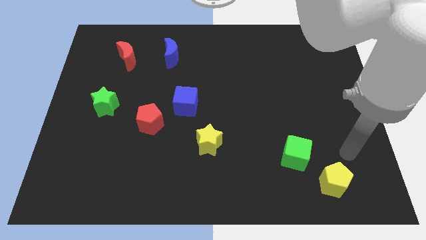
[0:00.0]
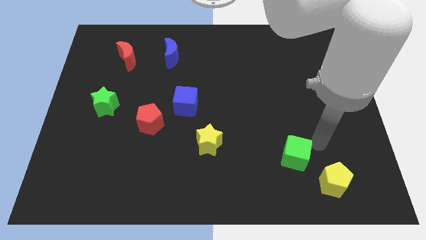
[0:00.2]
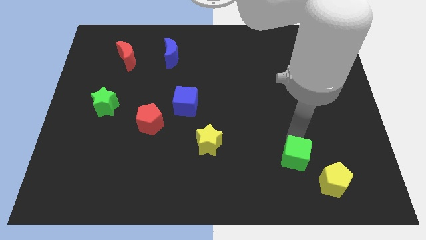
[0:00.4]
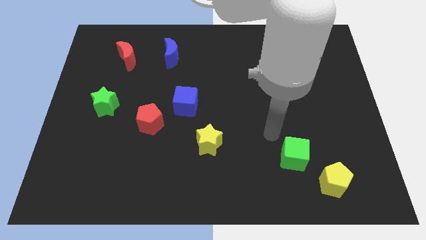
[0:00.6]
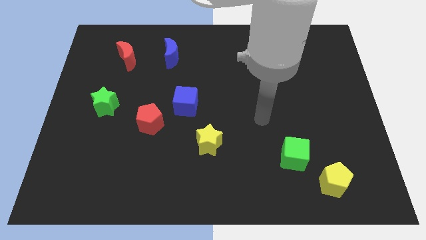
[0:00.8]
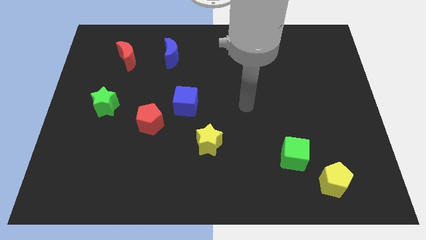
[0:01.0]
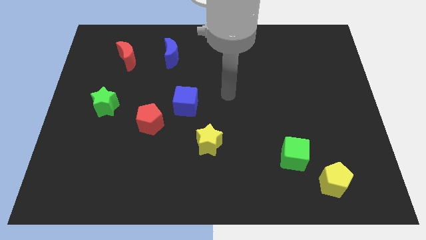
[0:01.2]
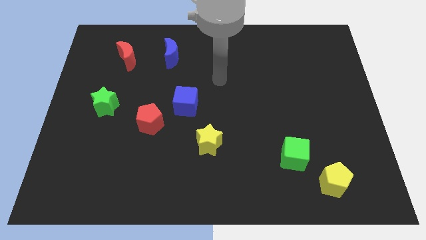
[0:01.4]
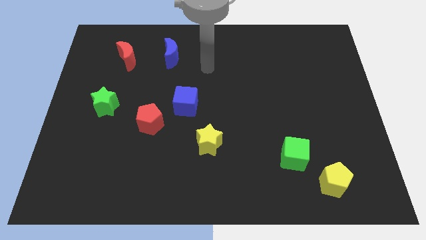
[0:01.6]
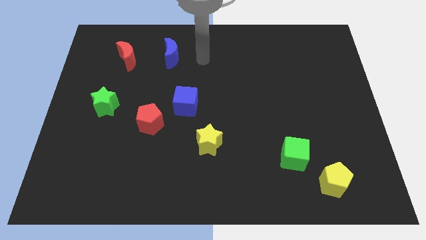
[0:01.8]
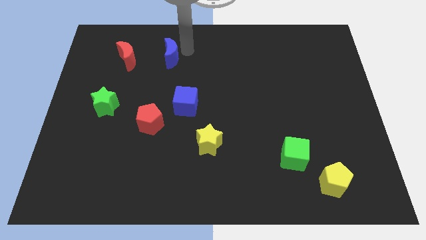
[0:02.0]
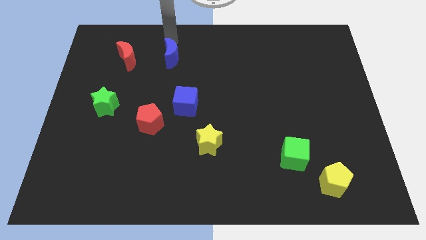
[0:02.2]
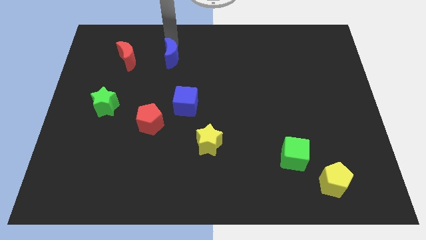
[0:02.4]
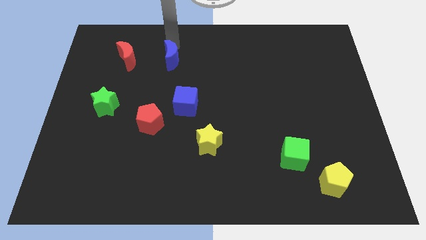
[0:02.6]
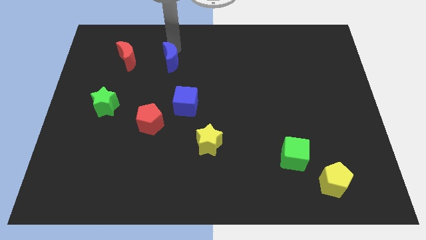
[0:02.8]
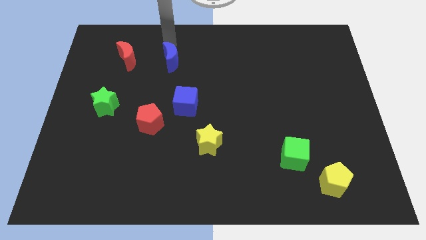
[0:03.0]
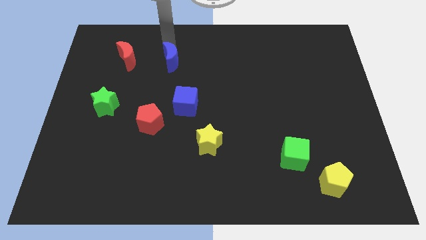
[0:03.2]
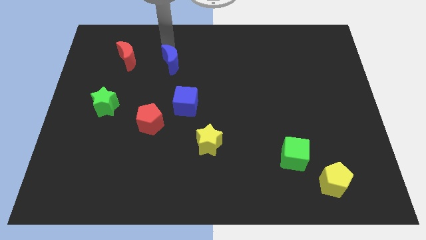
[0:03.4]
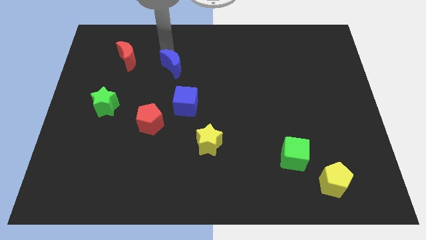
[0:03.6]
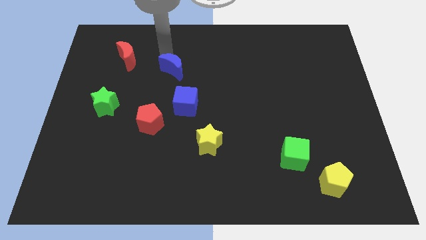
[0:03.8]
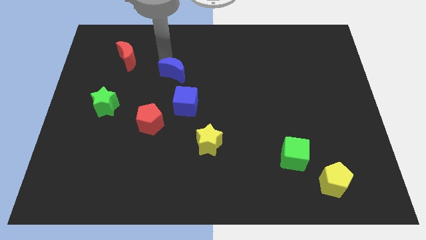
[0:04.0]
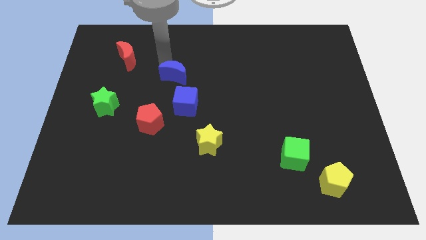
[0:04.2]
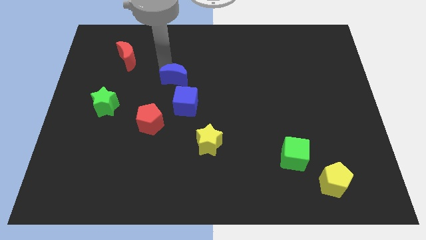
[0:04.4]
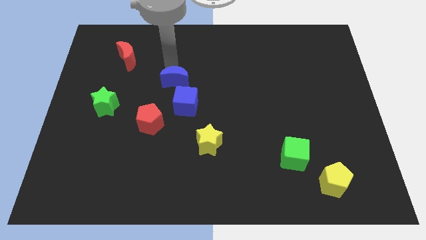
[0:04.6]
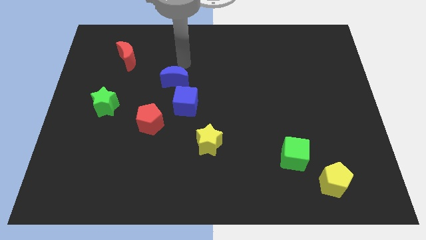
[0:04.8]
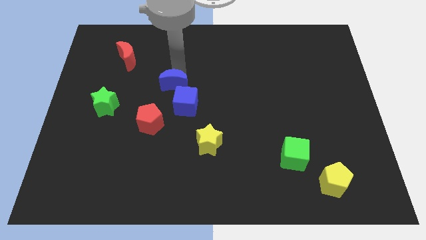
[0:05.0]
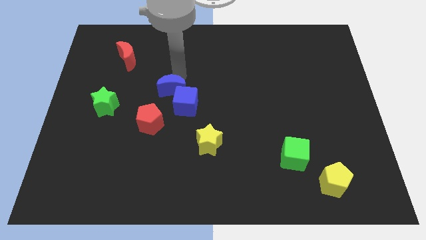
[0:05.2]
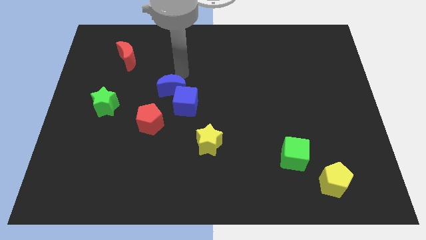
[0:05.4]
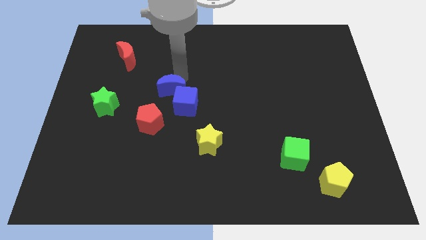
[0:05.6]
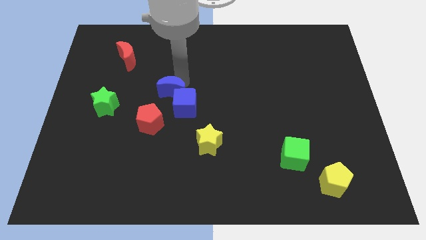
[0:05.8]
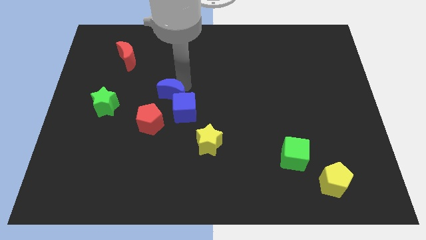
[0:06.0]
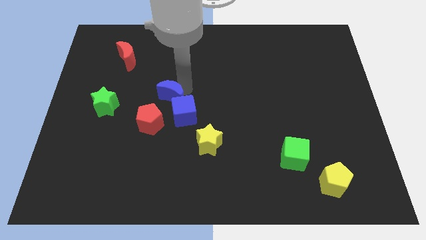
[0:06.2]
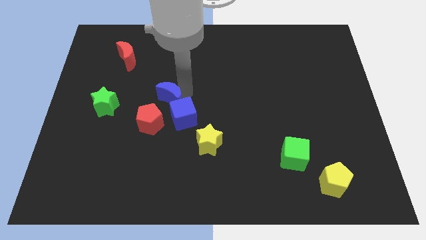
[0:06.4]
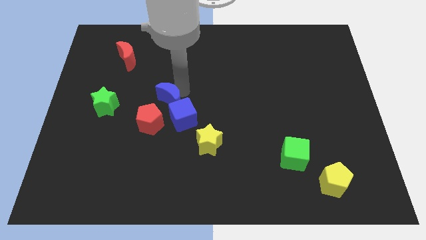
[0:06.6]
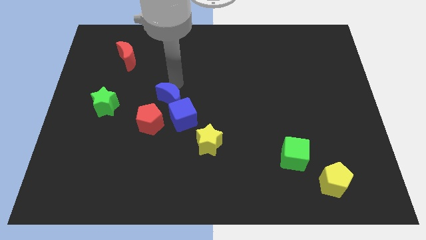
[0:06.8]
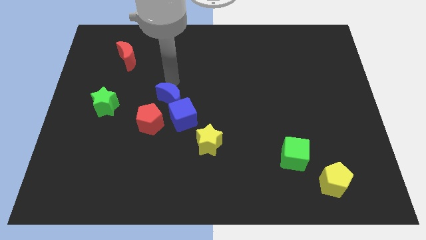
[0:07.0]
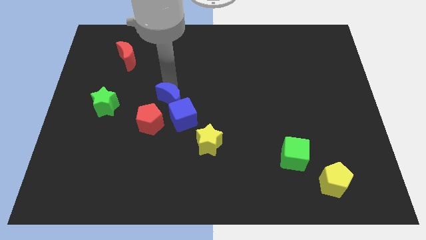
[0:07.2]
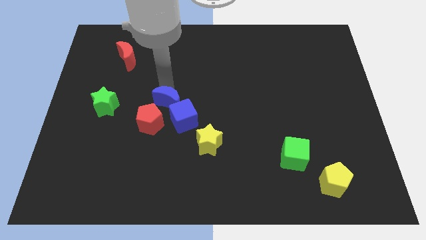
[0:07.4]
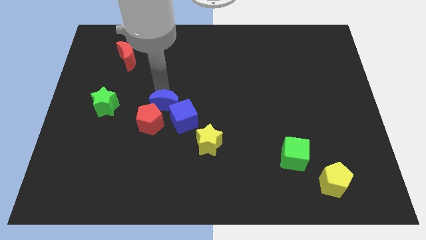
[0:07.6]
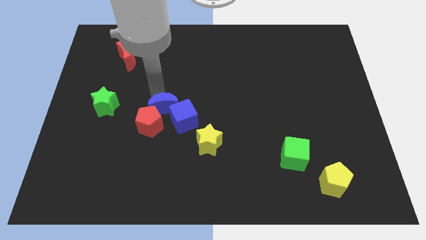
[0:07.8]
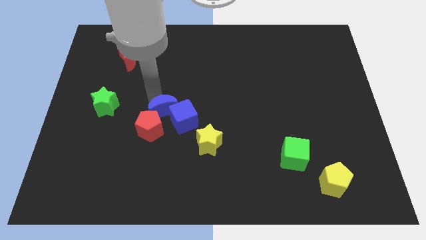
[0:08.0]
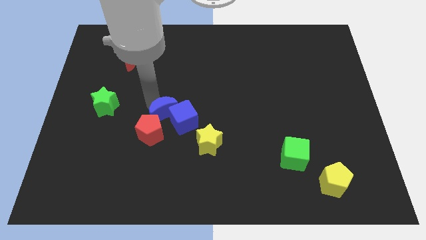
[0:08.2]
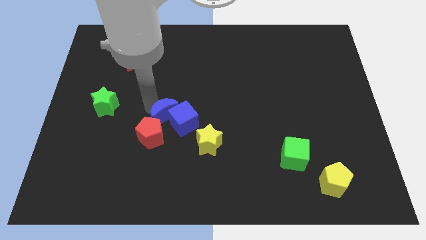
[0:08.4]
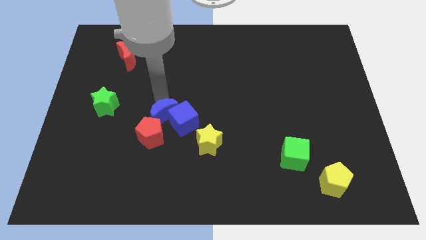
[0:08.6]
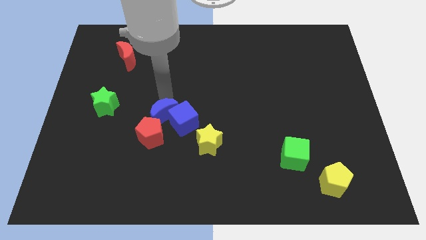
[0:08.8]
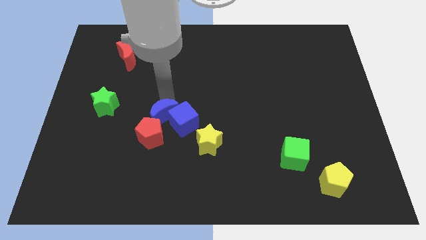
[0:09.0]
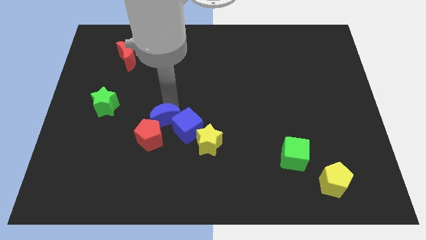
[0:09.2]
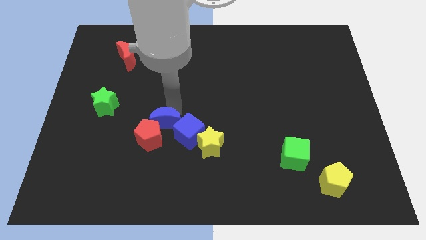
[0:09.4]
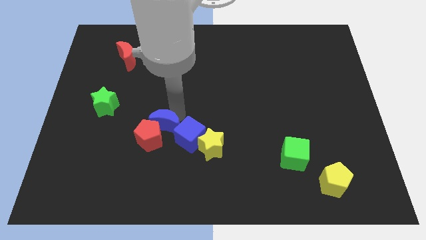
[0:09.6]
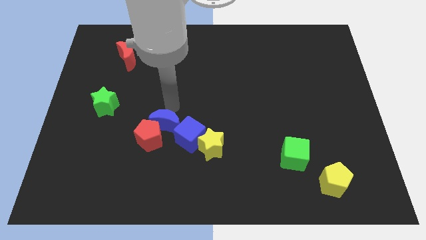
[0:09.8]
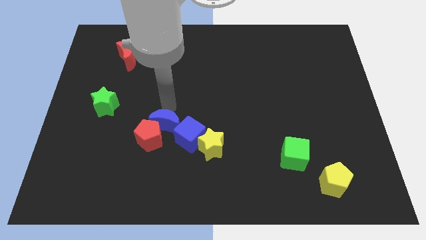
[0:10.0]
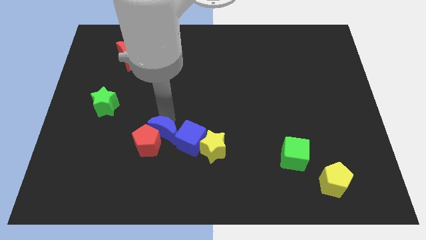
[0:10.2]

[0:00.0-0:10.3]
push the blue moon to the left side of the yellow star

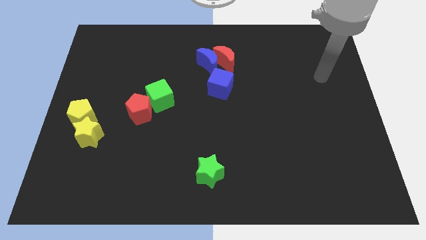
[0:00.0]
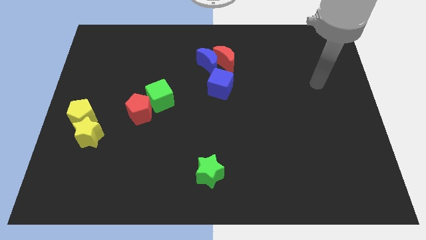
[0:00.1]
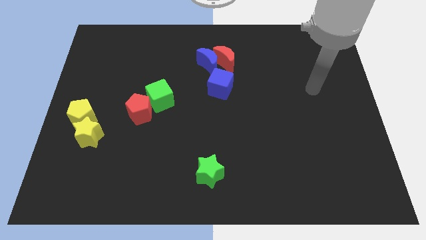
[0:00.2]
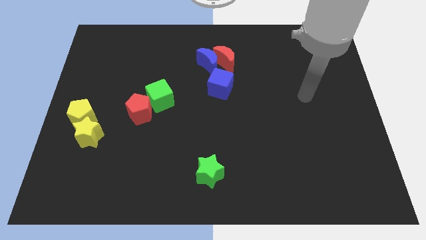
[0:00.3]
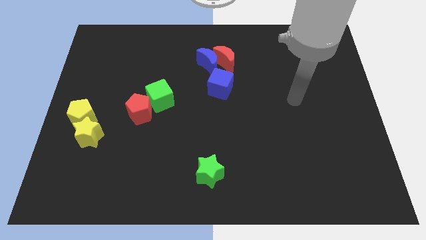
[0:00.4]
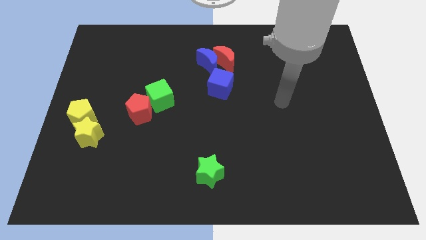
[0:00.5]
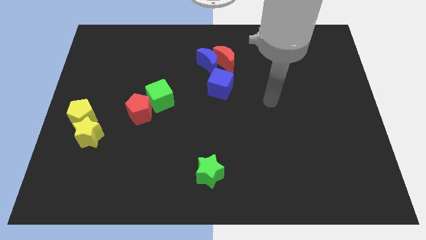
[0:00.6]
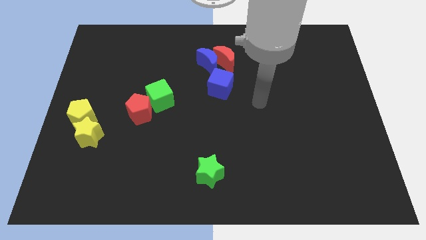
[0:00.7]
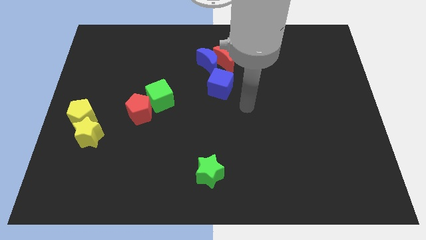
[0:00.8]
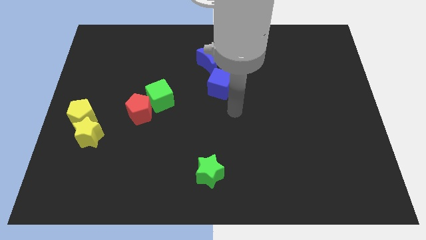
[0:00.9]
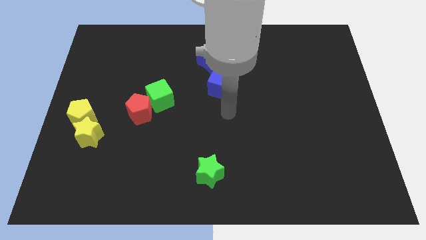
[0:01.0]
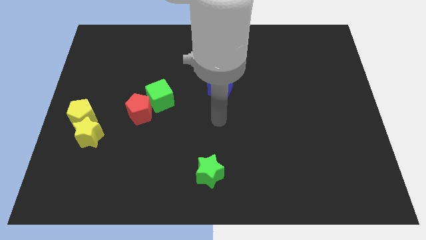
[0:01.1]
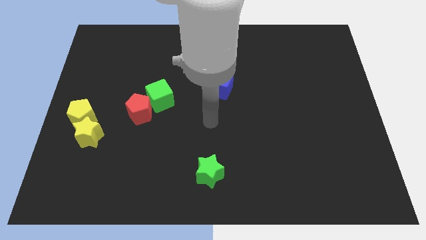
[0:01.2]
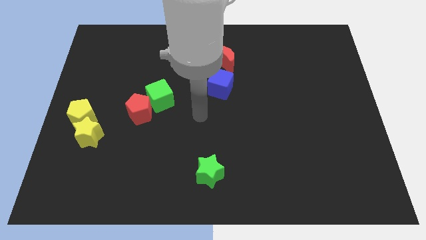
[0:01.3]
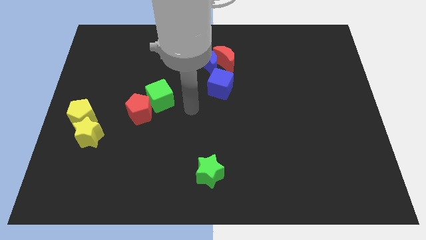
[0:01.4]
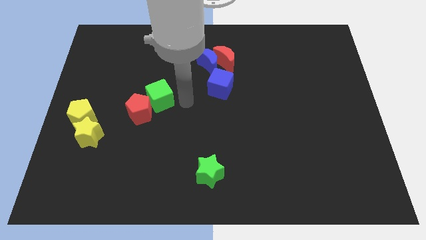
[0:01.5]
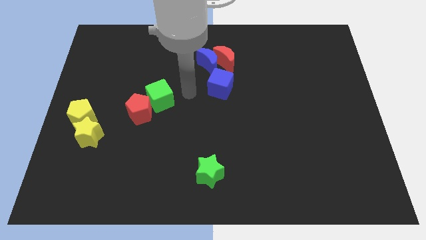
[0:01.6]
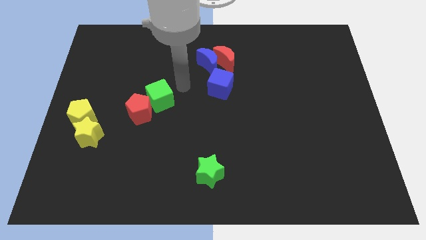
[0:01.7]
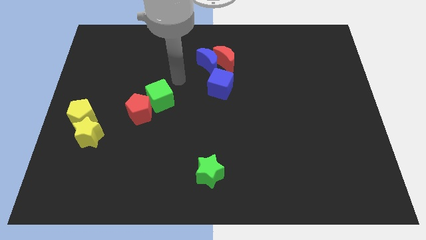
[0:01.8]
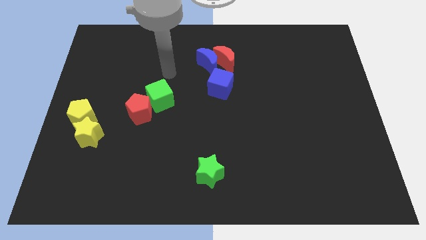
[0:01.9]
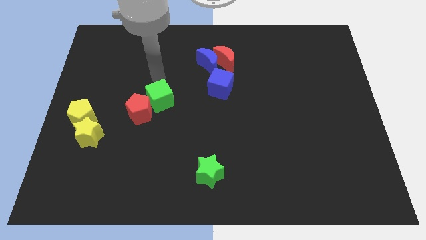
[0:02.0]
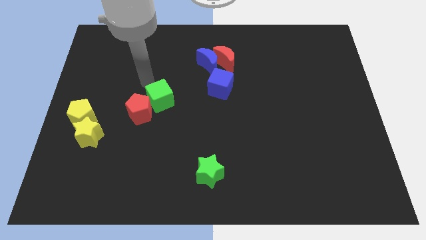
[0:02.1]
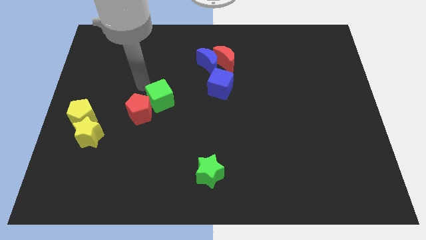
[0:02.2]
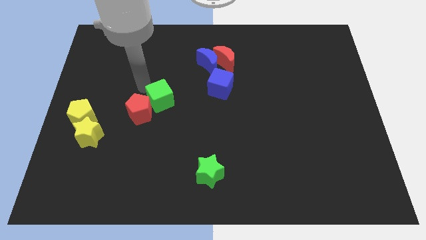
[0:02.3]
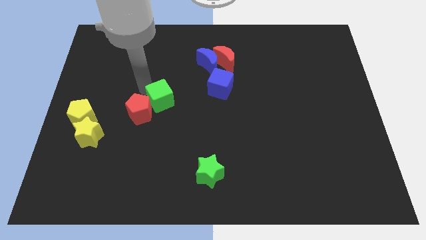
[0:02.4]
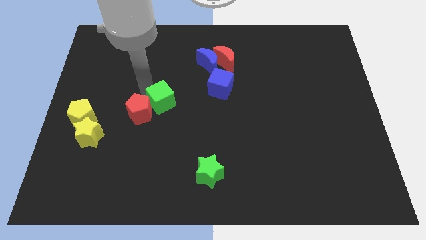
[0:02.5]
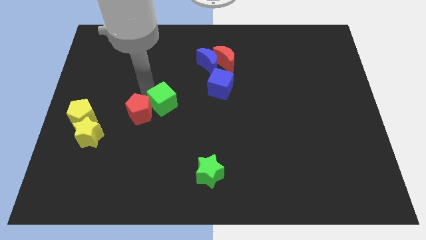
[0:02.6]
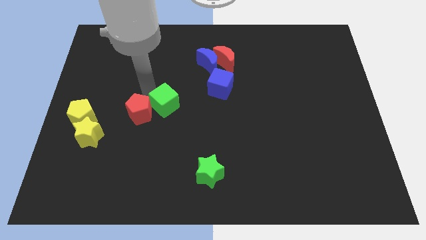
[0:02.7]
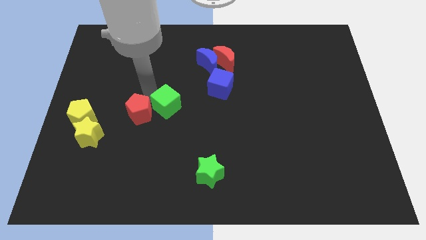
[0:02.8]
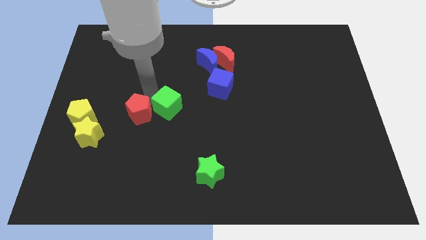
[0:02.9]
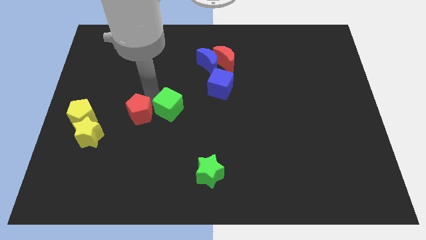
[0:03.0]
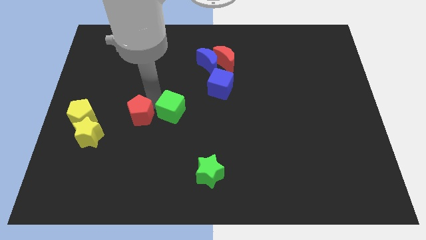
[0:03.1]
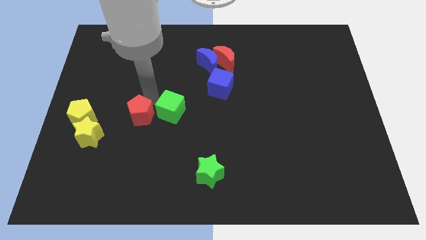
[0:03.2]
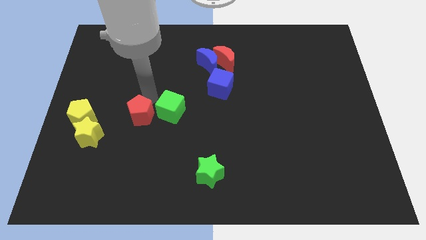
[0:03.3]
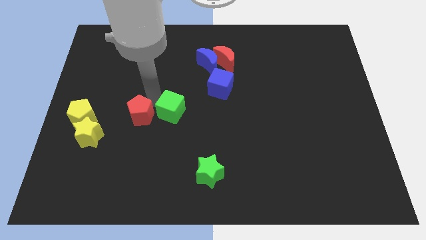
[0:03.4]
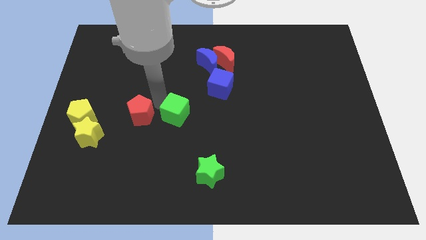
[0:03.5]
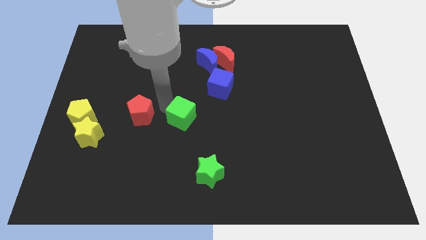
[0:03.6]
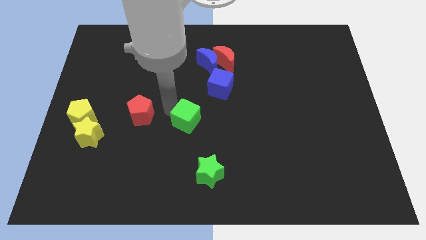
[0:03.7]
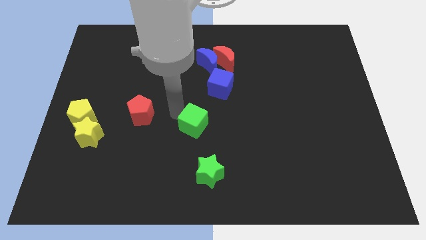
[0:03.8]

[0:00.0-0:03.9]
move the green cube to the top of the green star
